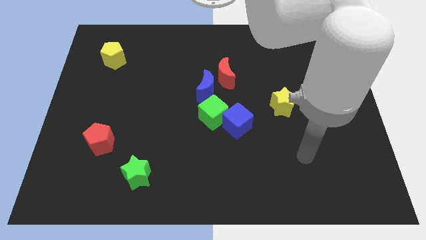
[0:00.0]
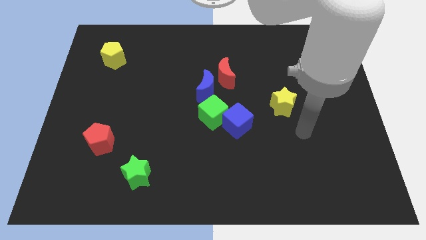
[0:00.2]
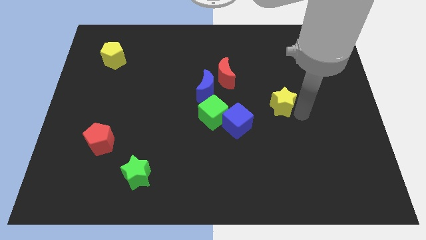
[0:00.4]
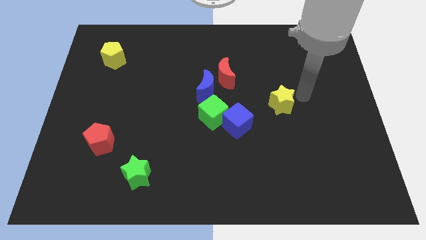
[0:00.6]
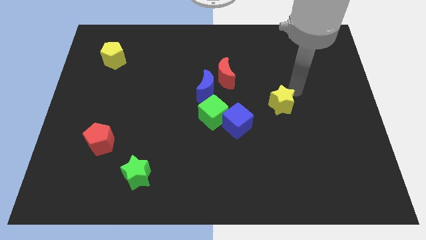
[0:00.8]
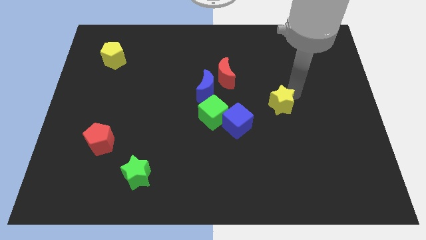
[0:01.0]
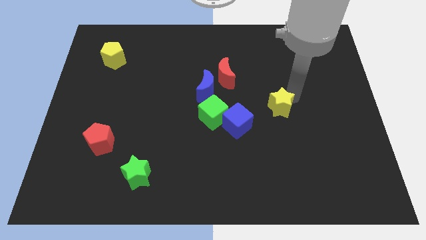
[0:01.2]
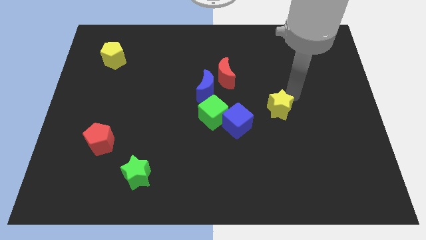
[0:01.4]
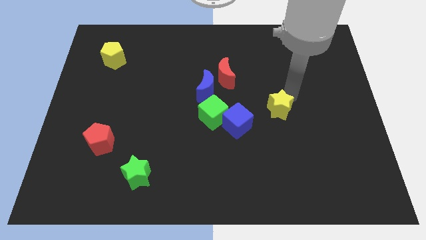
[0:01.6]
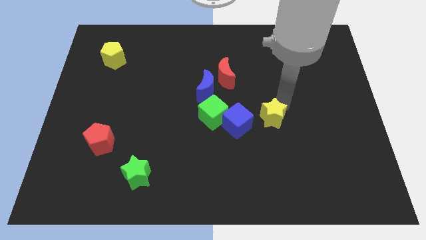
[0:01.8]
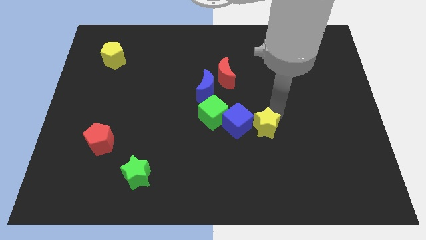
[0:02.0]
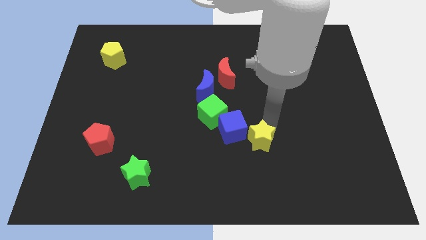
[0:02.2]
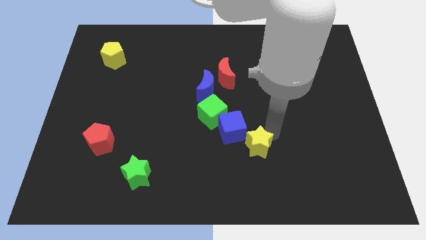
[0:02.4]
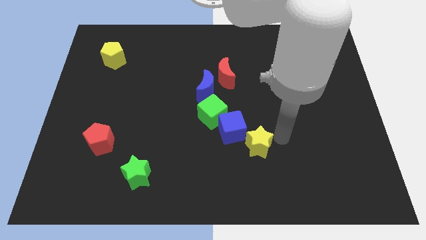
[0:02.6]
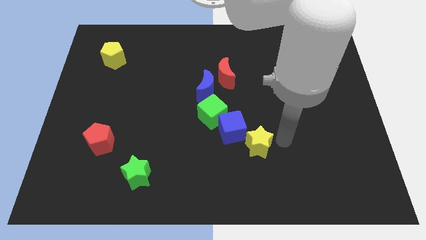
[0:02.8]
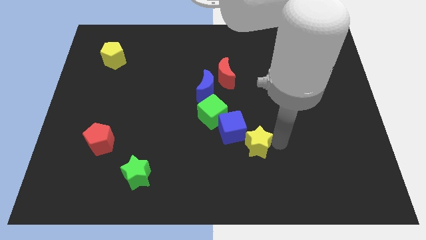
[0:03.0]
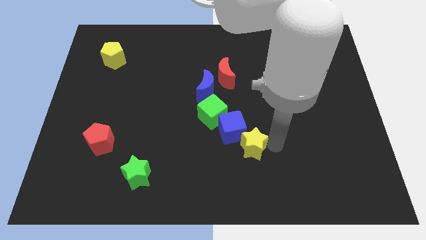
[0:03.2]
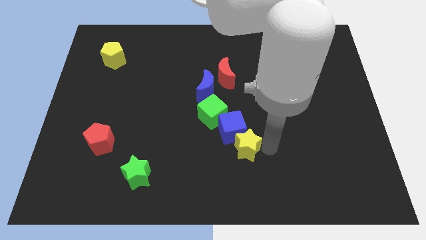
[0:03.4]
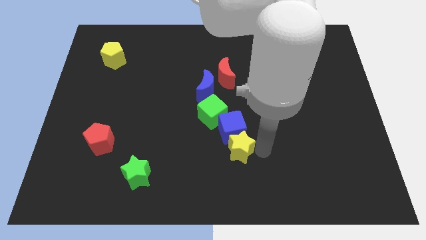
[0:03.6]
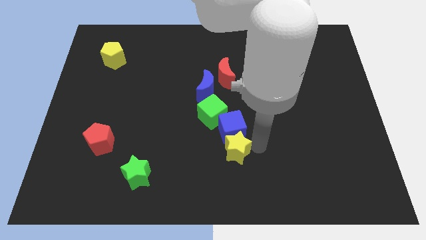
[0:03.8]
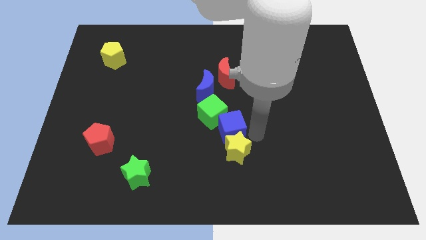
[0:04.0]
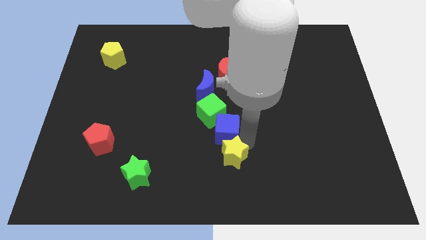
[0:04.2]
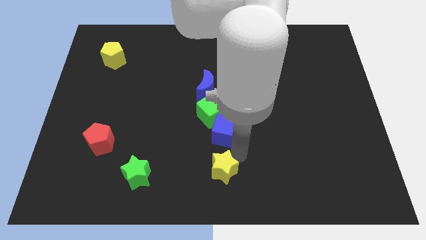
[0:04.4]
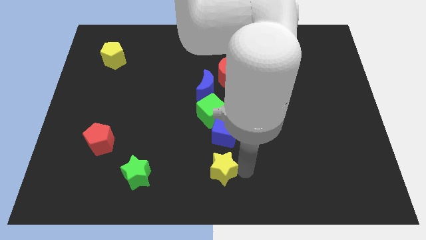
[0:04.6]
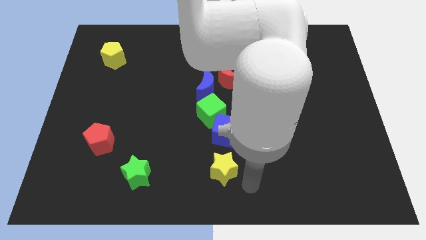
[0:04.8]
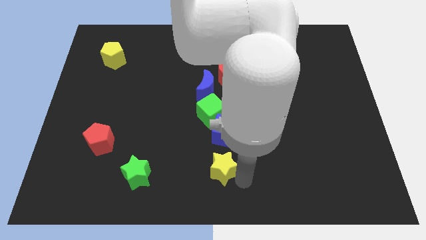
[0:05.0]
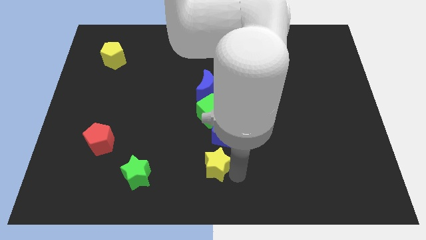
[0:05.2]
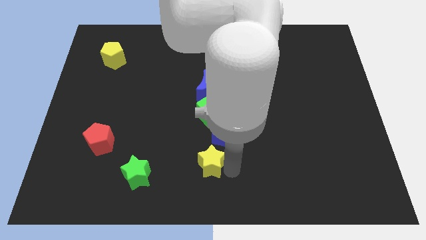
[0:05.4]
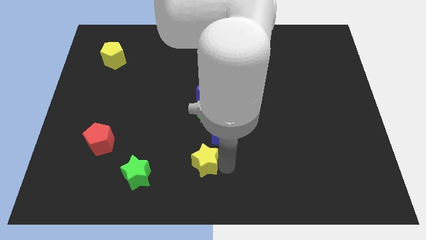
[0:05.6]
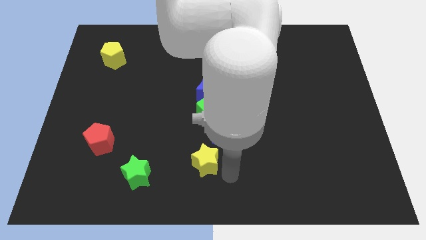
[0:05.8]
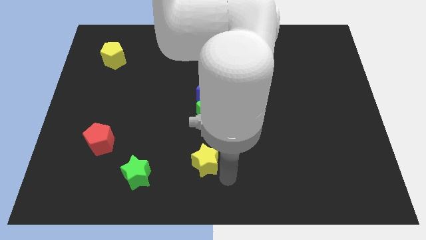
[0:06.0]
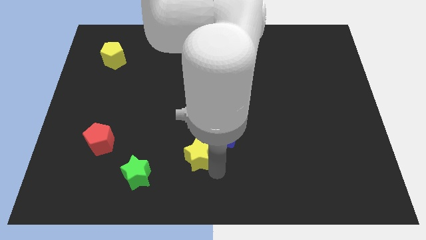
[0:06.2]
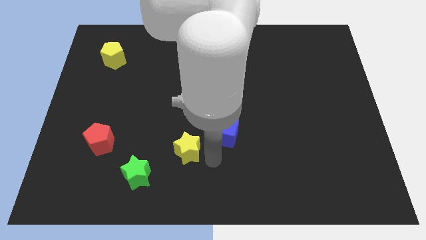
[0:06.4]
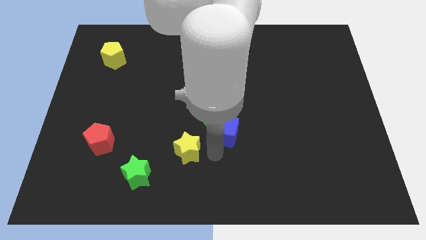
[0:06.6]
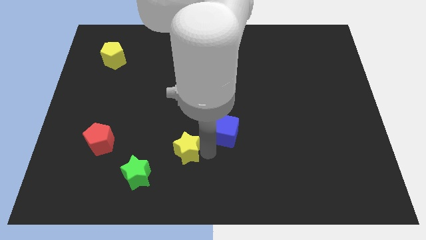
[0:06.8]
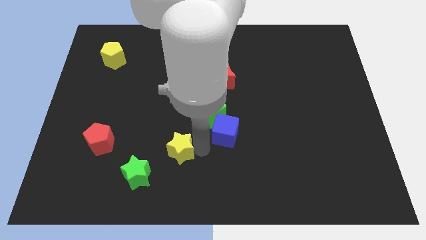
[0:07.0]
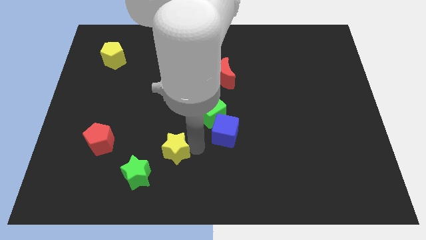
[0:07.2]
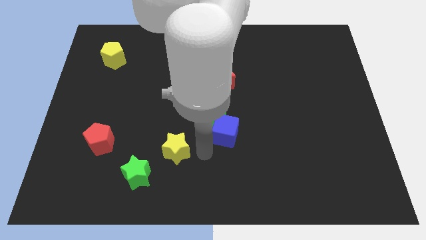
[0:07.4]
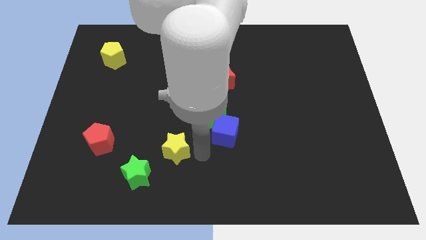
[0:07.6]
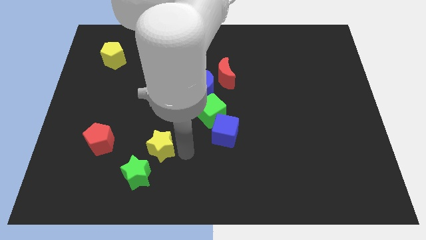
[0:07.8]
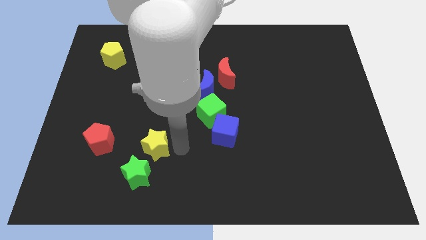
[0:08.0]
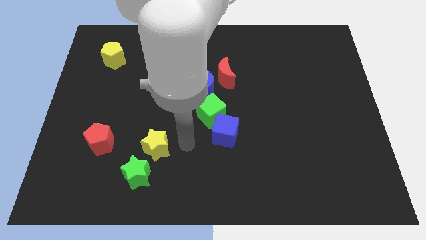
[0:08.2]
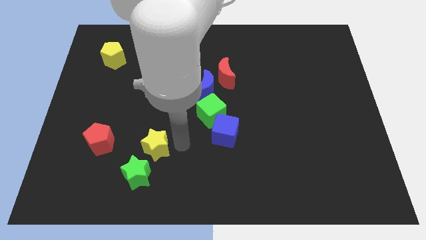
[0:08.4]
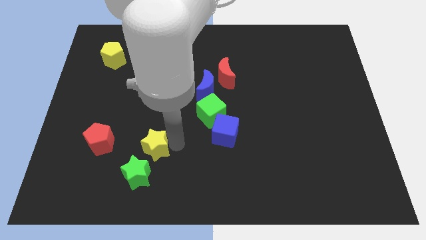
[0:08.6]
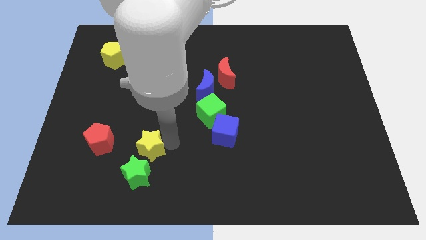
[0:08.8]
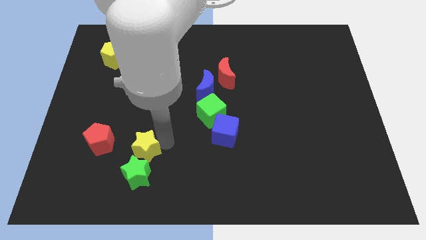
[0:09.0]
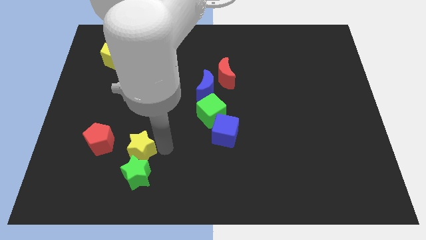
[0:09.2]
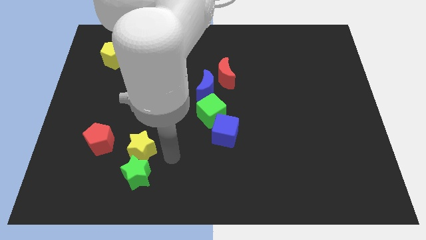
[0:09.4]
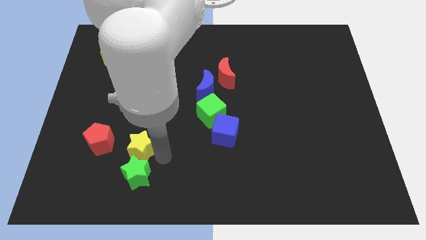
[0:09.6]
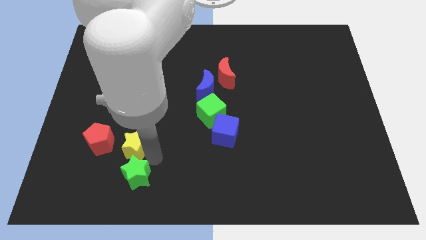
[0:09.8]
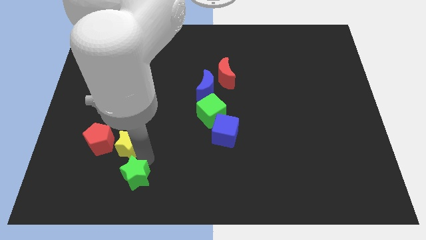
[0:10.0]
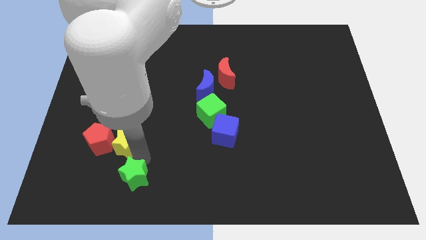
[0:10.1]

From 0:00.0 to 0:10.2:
put the yellow star to the red pentagon

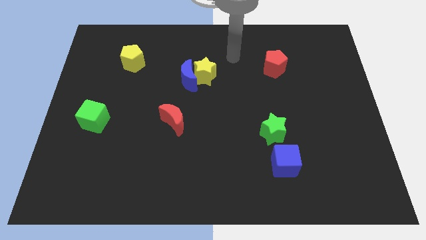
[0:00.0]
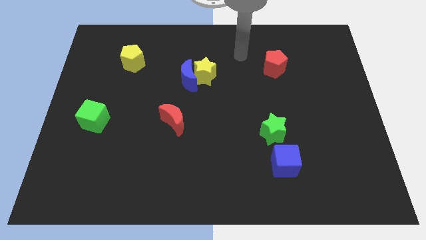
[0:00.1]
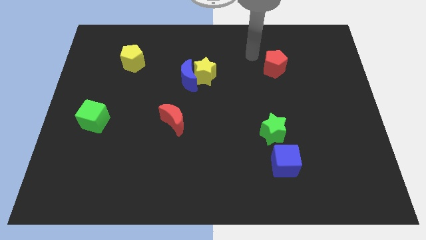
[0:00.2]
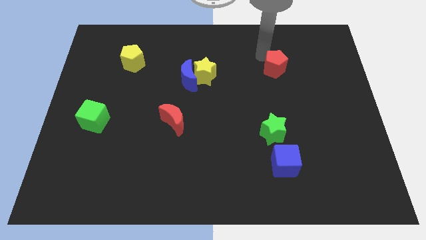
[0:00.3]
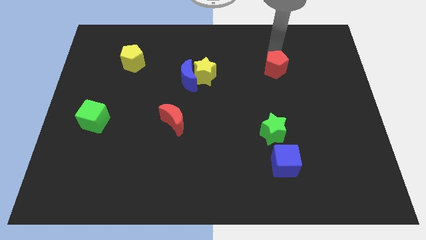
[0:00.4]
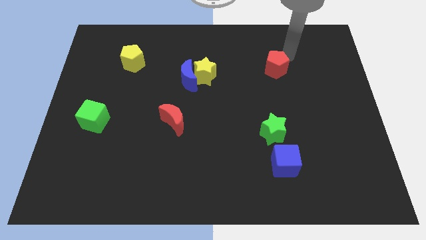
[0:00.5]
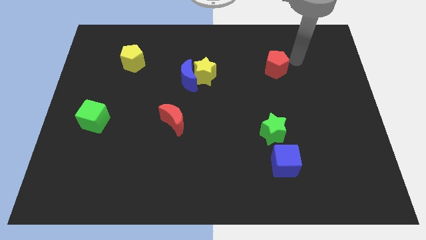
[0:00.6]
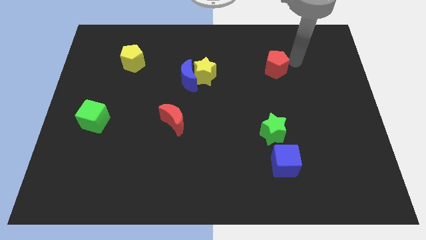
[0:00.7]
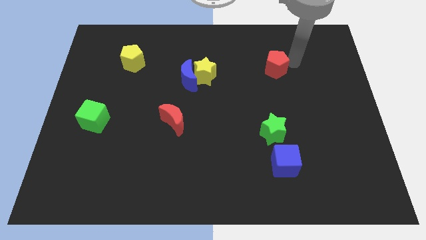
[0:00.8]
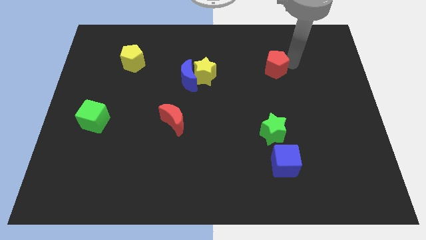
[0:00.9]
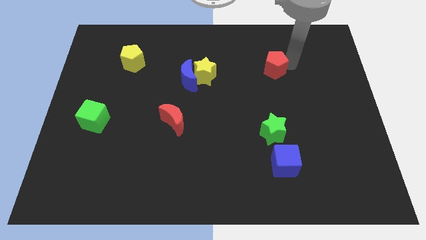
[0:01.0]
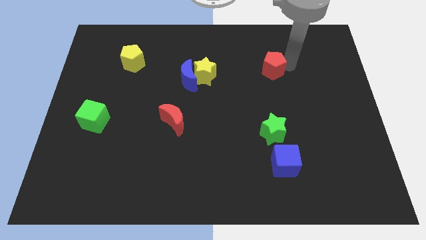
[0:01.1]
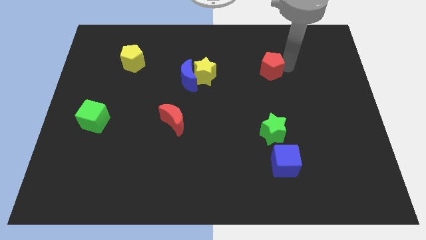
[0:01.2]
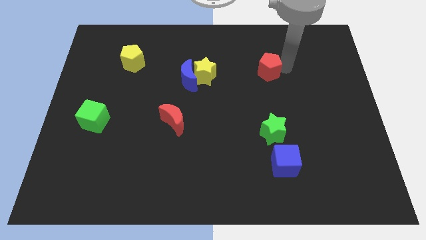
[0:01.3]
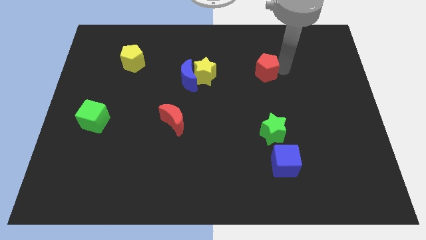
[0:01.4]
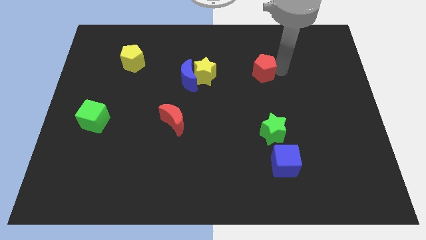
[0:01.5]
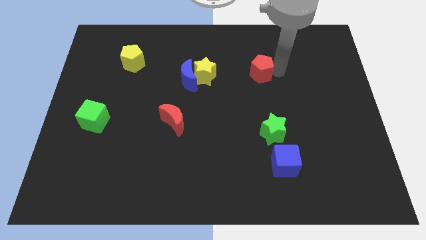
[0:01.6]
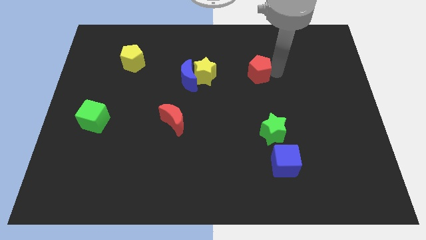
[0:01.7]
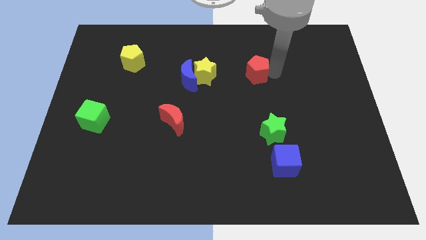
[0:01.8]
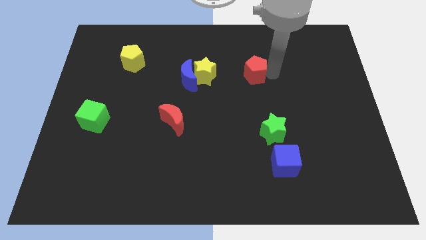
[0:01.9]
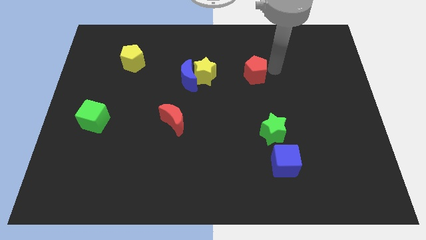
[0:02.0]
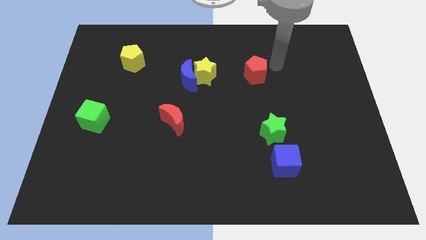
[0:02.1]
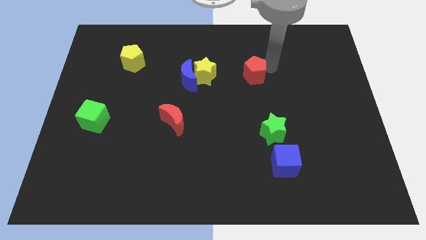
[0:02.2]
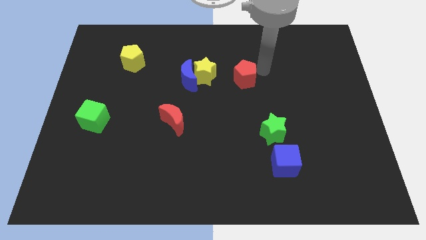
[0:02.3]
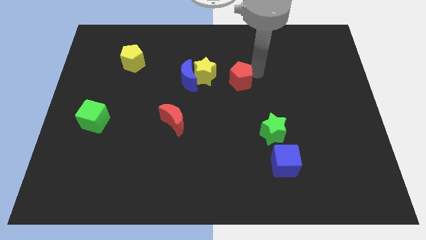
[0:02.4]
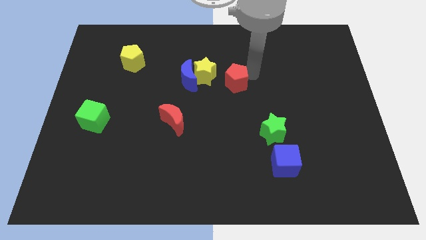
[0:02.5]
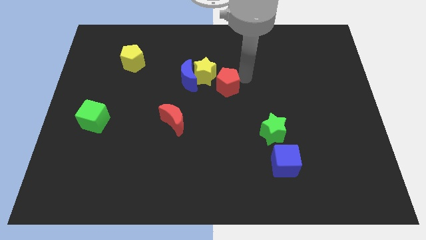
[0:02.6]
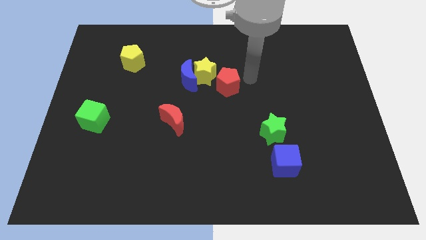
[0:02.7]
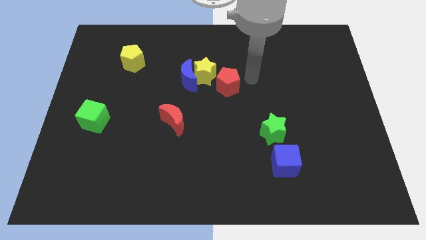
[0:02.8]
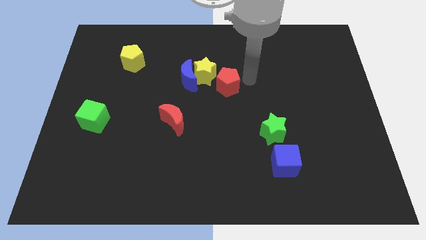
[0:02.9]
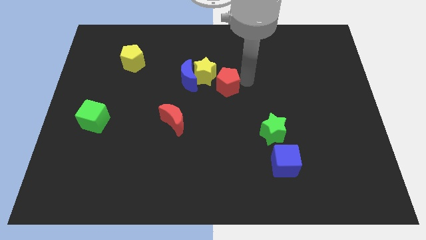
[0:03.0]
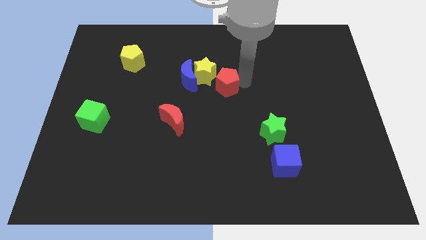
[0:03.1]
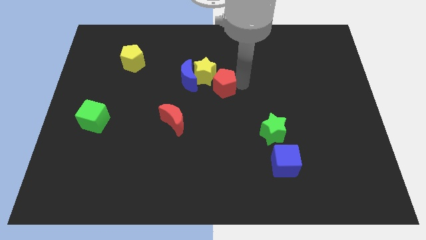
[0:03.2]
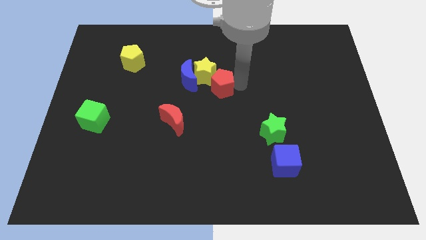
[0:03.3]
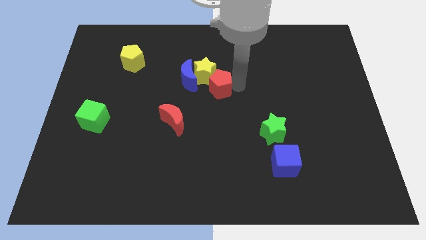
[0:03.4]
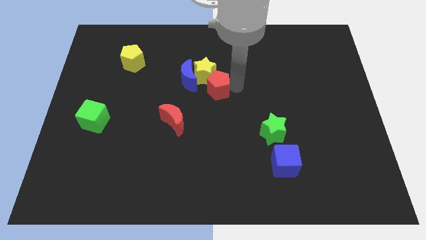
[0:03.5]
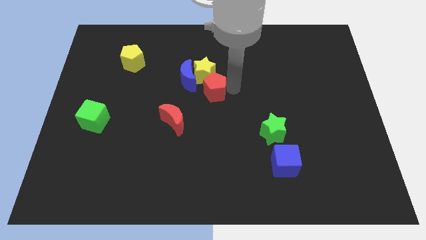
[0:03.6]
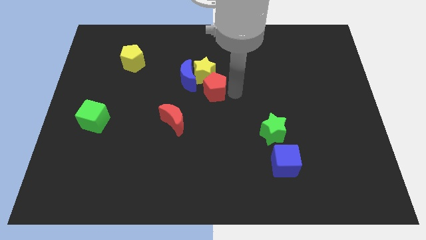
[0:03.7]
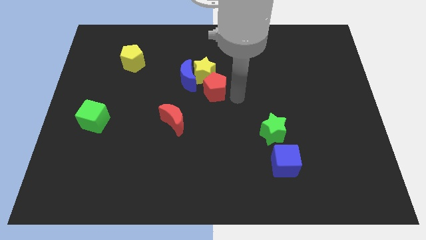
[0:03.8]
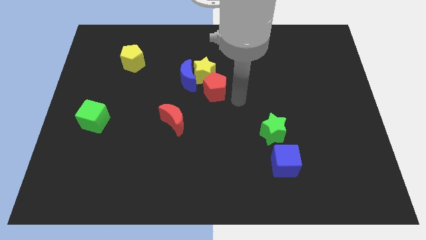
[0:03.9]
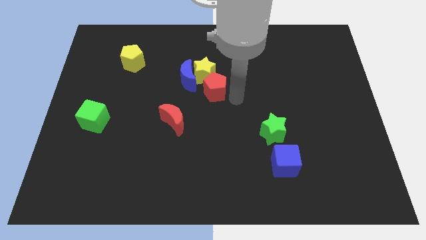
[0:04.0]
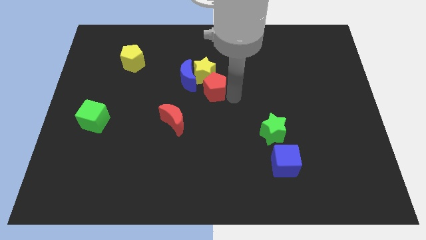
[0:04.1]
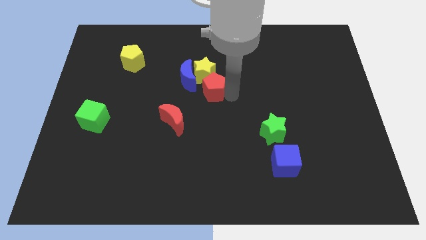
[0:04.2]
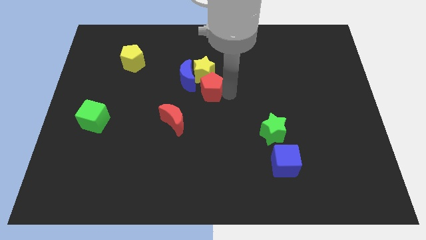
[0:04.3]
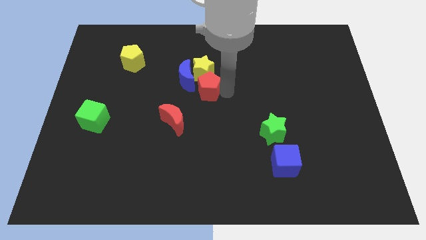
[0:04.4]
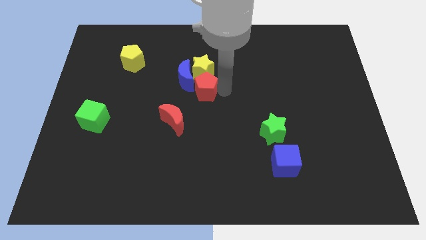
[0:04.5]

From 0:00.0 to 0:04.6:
move the red pentagon next to the blue moon
